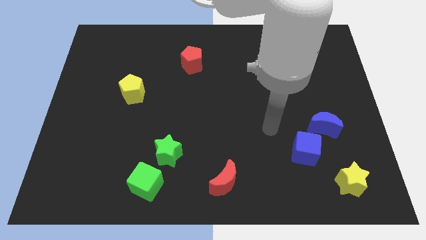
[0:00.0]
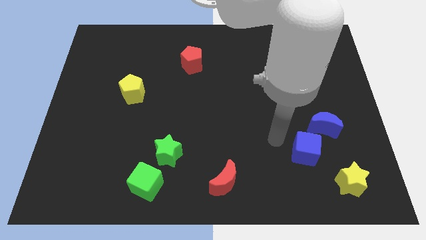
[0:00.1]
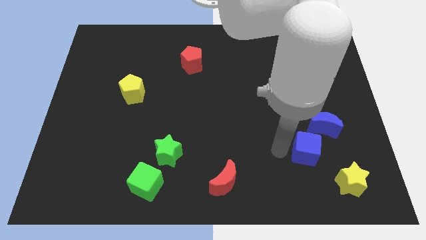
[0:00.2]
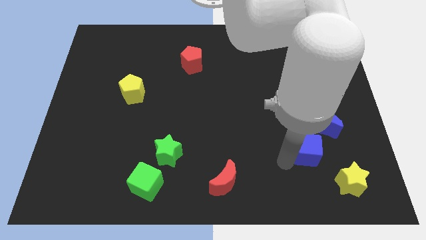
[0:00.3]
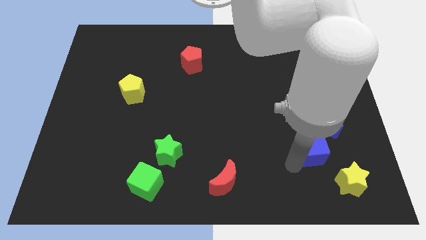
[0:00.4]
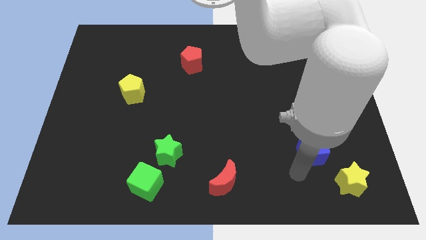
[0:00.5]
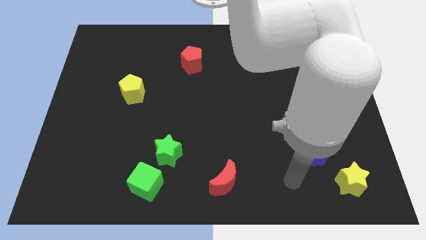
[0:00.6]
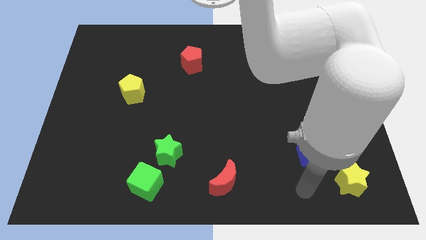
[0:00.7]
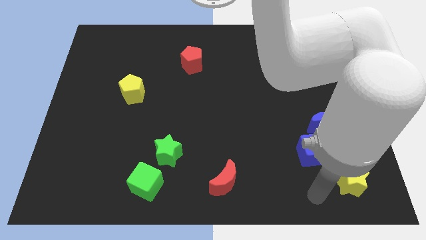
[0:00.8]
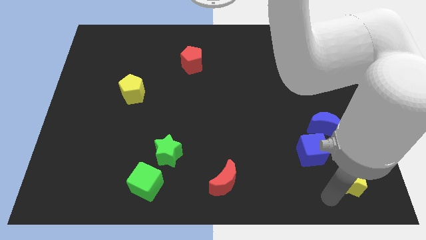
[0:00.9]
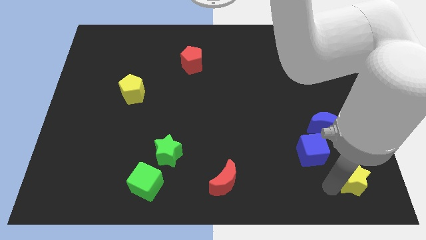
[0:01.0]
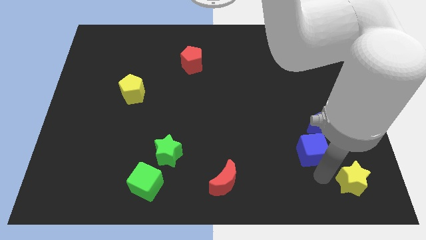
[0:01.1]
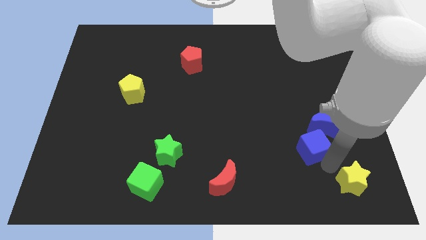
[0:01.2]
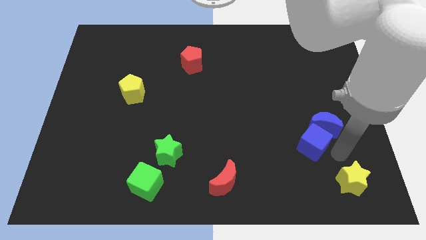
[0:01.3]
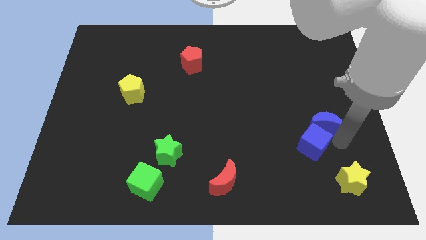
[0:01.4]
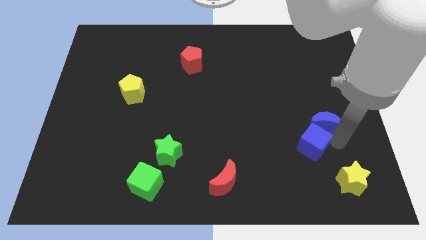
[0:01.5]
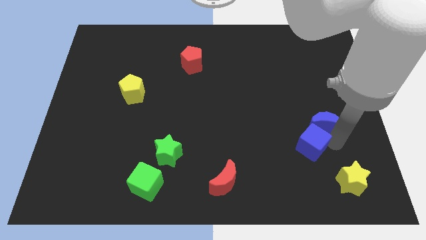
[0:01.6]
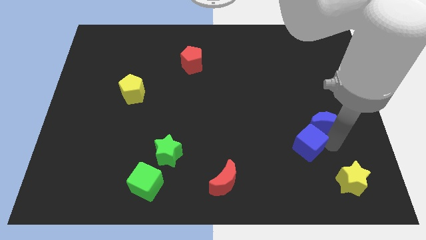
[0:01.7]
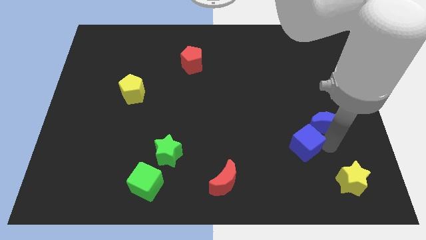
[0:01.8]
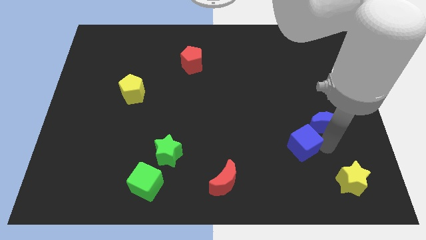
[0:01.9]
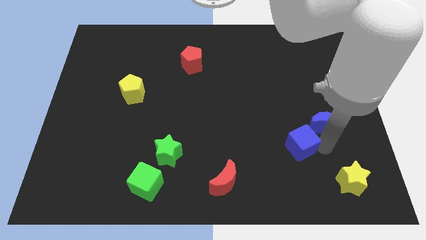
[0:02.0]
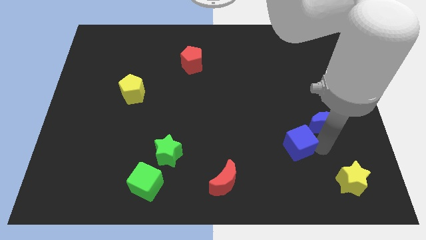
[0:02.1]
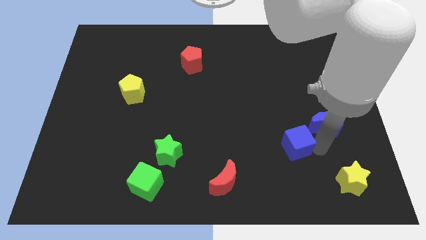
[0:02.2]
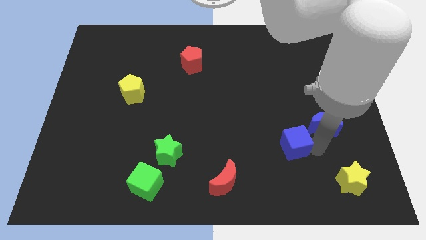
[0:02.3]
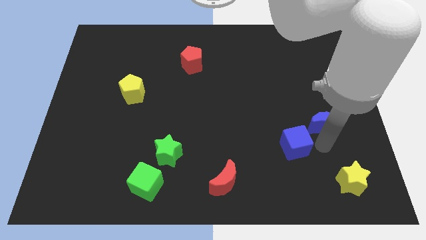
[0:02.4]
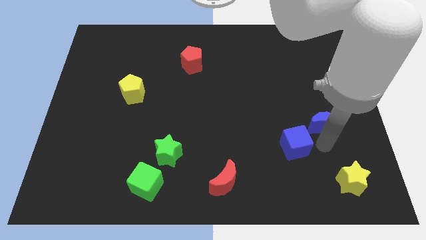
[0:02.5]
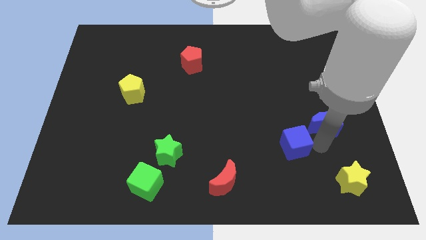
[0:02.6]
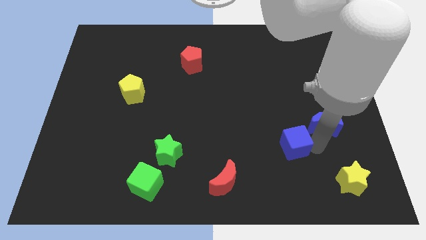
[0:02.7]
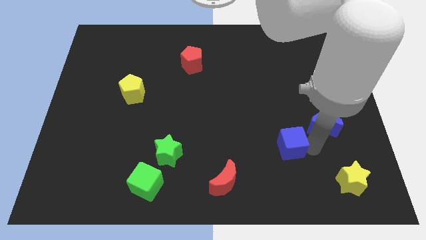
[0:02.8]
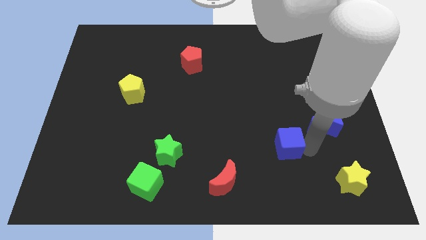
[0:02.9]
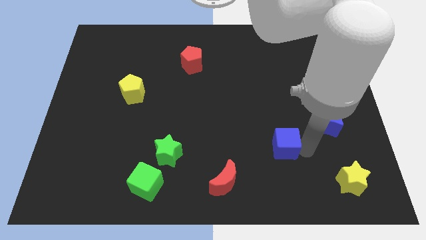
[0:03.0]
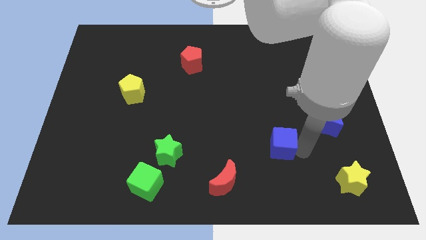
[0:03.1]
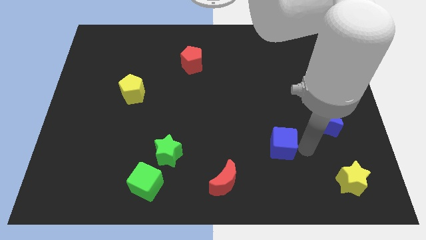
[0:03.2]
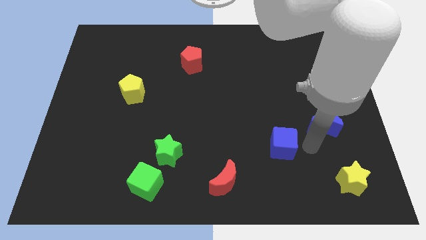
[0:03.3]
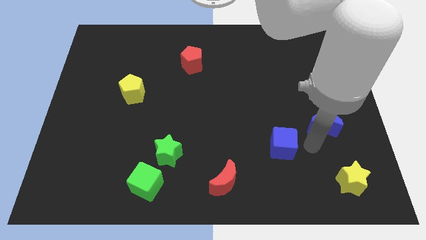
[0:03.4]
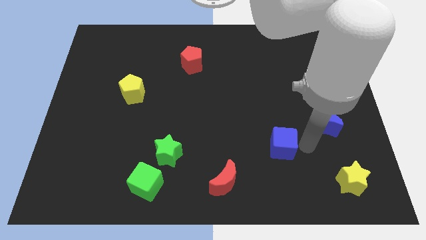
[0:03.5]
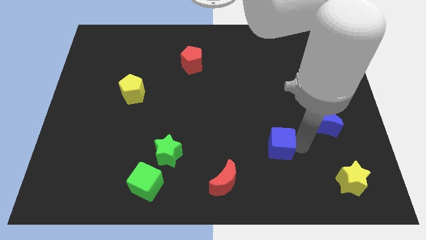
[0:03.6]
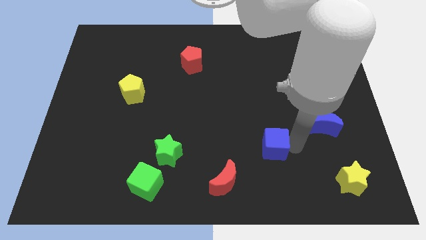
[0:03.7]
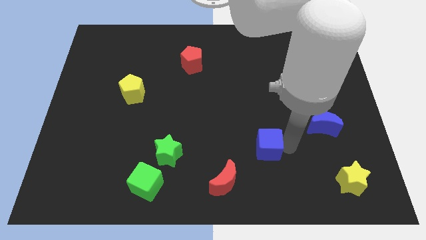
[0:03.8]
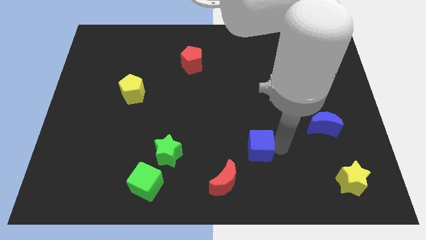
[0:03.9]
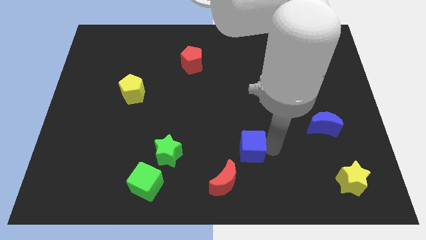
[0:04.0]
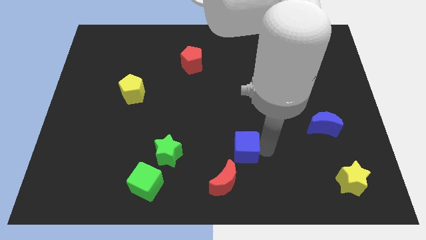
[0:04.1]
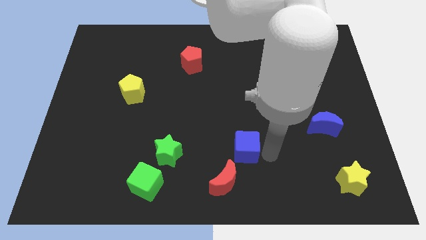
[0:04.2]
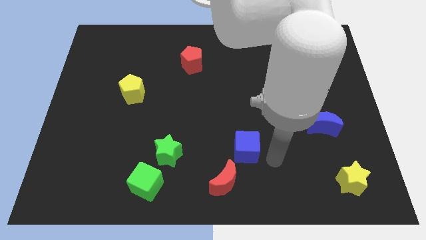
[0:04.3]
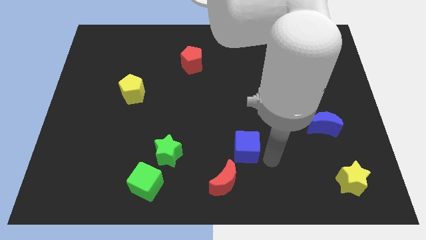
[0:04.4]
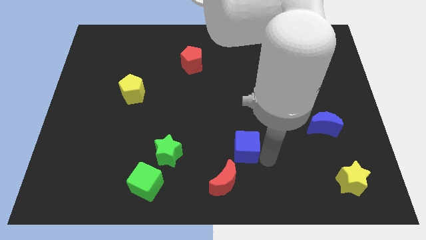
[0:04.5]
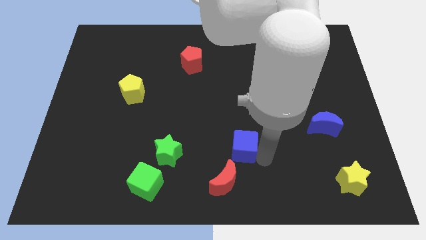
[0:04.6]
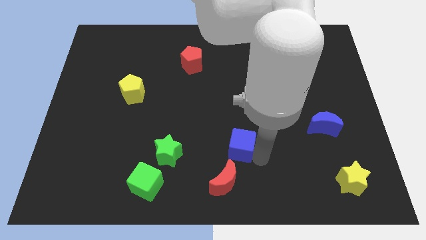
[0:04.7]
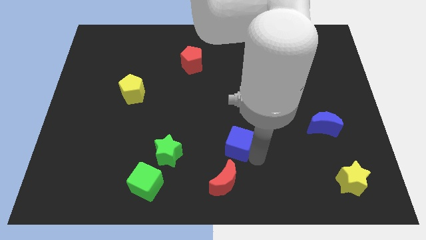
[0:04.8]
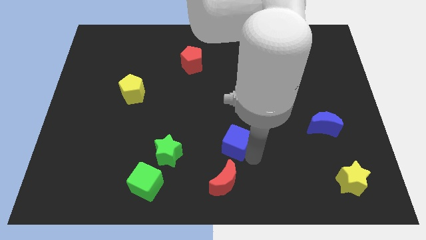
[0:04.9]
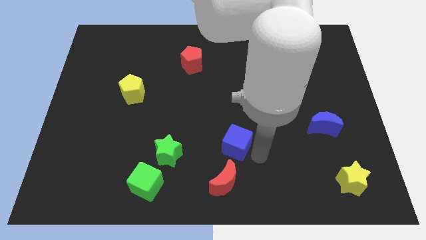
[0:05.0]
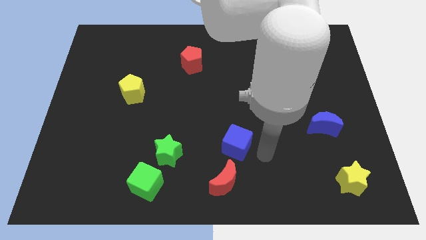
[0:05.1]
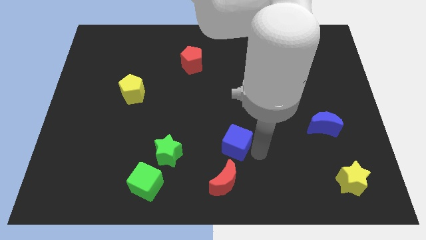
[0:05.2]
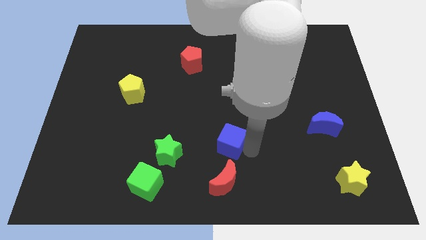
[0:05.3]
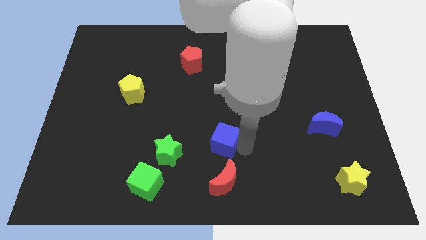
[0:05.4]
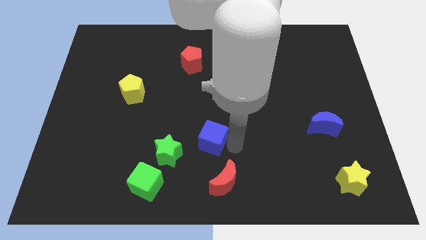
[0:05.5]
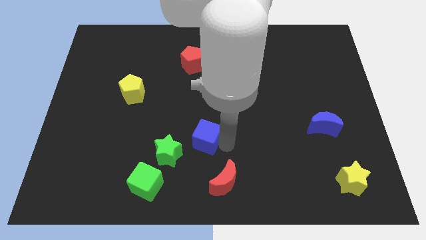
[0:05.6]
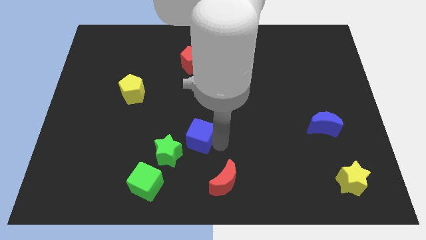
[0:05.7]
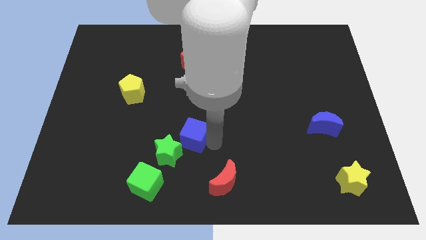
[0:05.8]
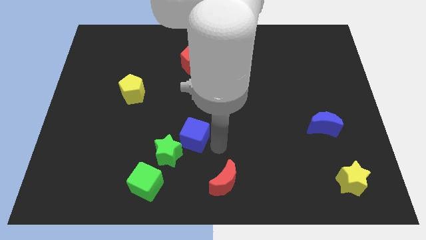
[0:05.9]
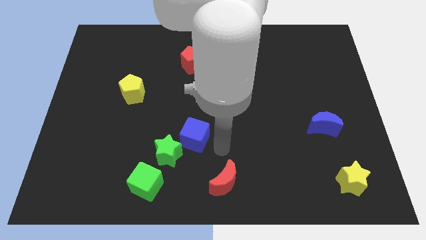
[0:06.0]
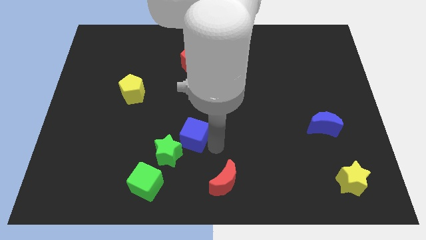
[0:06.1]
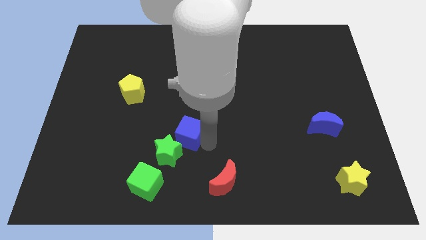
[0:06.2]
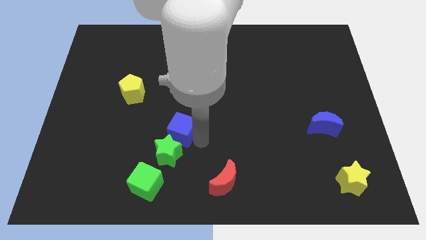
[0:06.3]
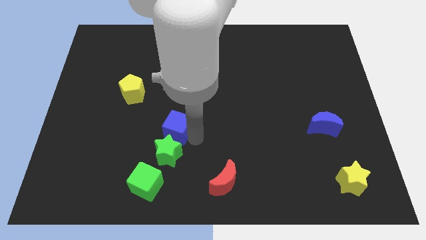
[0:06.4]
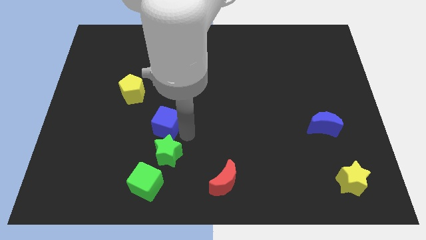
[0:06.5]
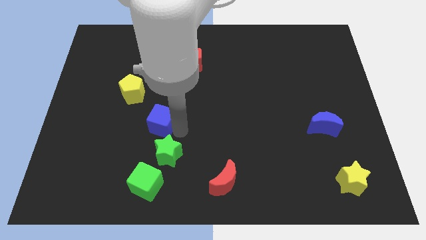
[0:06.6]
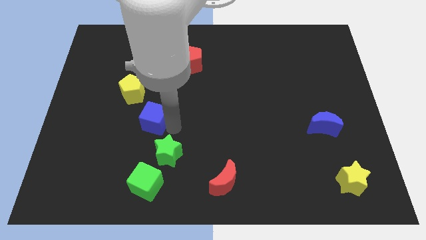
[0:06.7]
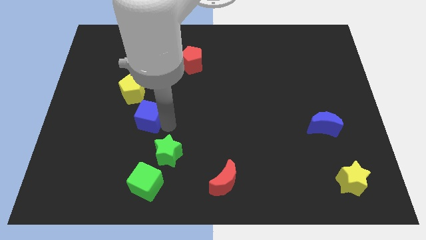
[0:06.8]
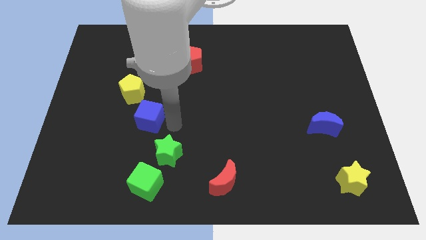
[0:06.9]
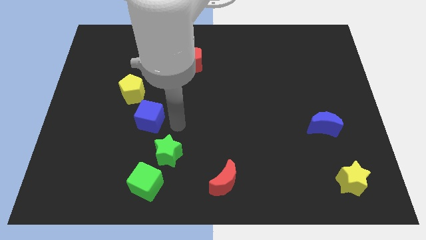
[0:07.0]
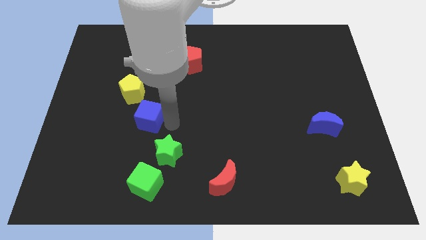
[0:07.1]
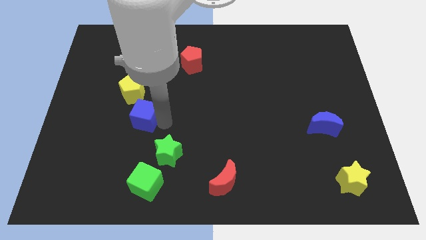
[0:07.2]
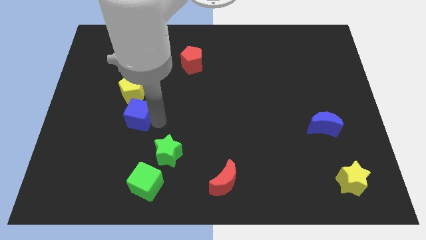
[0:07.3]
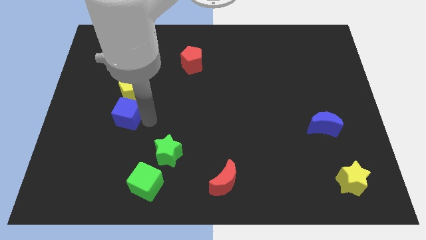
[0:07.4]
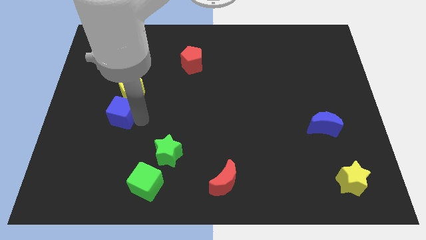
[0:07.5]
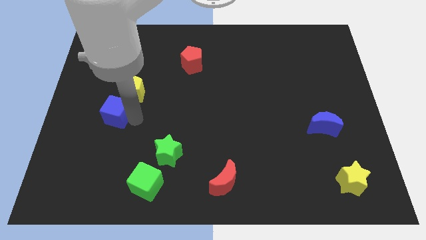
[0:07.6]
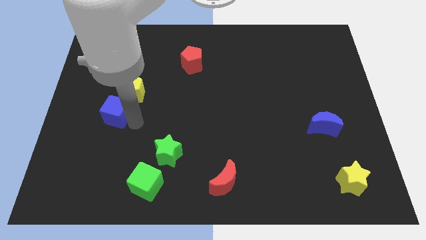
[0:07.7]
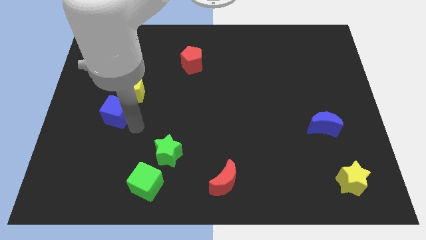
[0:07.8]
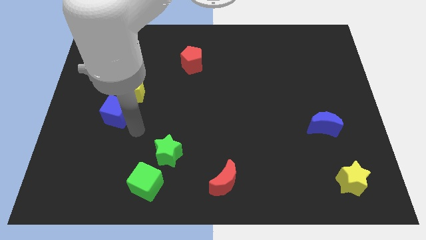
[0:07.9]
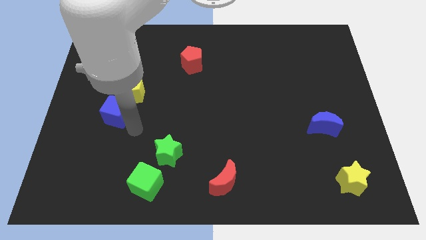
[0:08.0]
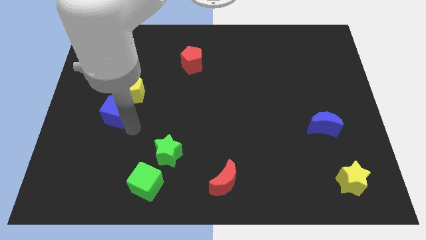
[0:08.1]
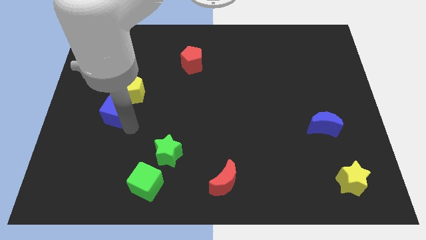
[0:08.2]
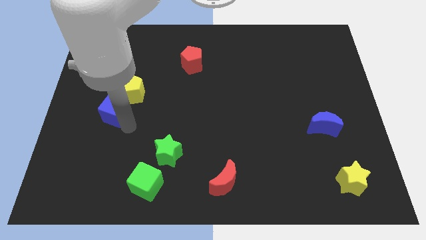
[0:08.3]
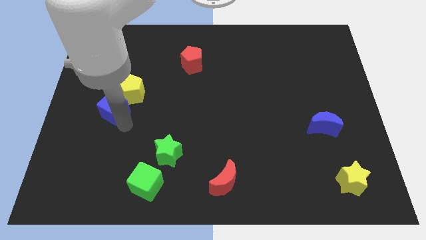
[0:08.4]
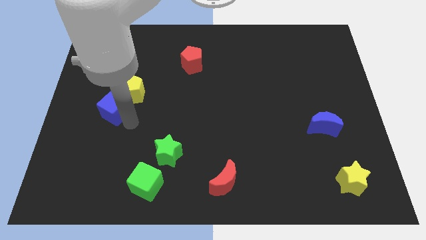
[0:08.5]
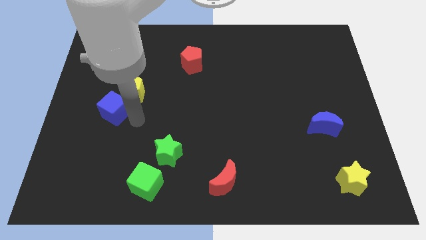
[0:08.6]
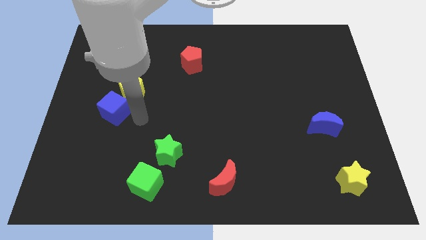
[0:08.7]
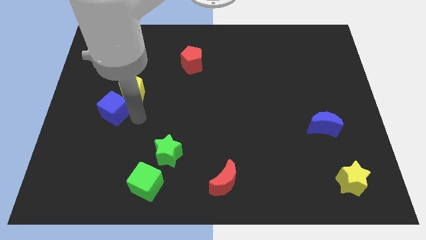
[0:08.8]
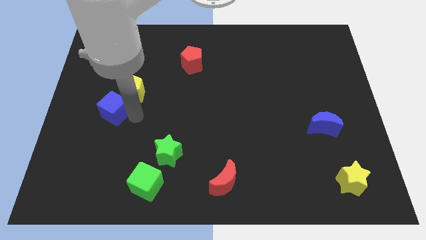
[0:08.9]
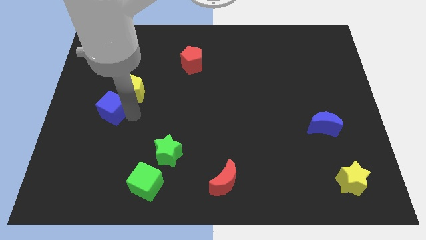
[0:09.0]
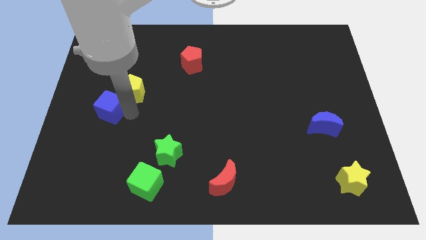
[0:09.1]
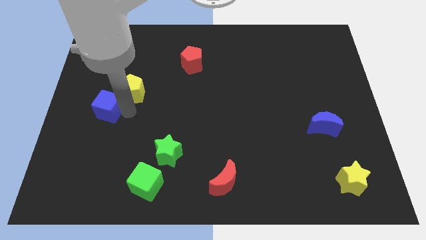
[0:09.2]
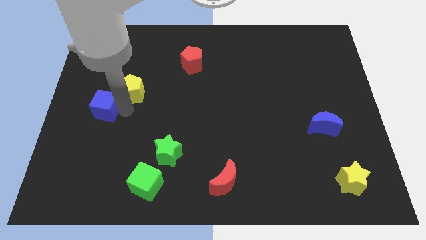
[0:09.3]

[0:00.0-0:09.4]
slide the blue cube to the left side
